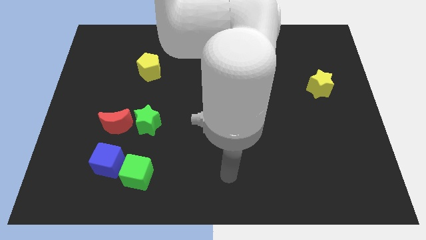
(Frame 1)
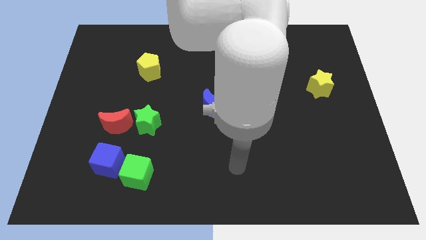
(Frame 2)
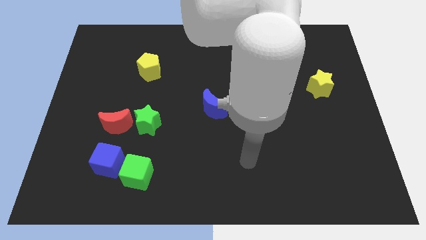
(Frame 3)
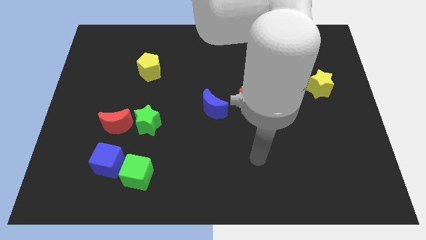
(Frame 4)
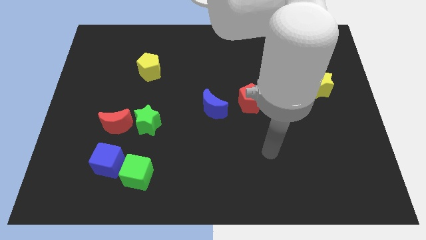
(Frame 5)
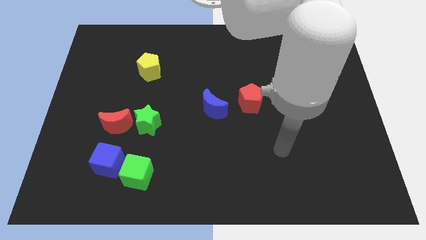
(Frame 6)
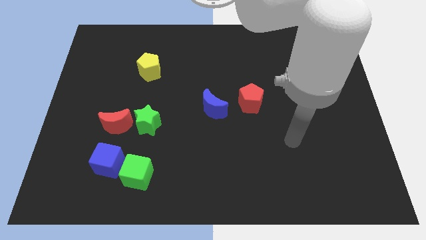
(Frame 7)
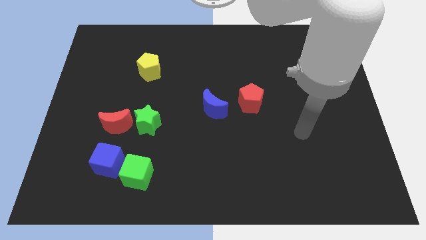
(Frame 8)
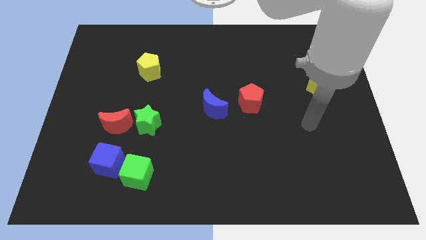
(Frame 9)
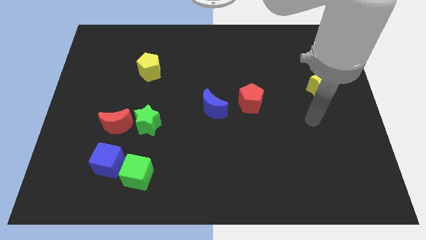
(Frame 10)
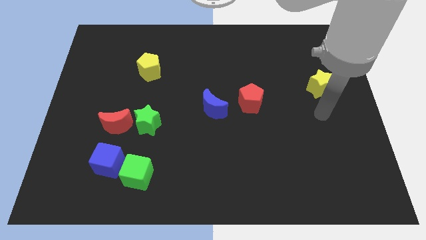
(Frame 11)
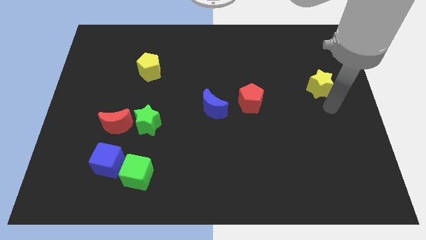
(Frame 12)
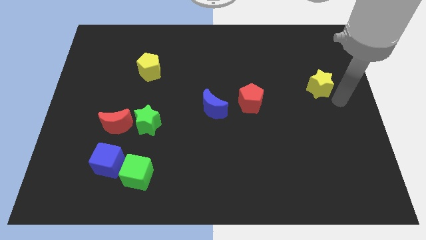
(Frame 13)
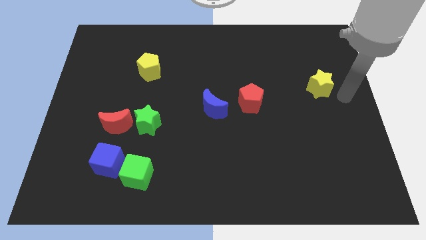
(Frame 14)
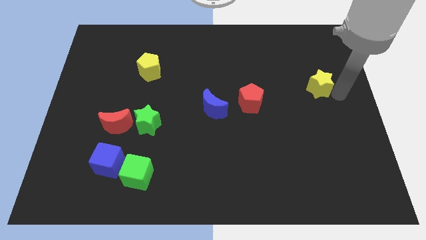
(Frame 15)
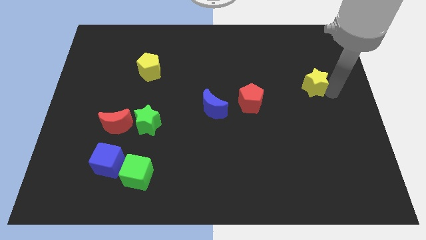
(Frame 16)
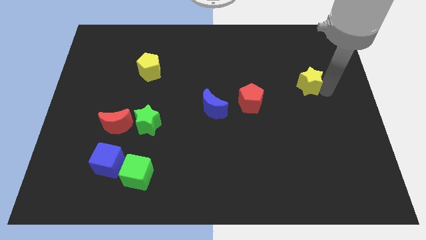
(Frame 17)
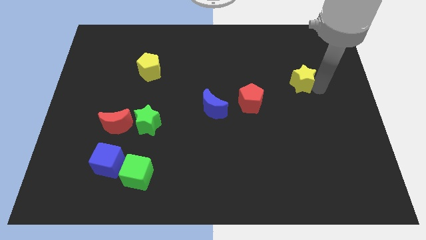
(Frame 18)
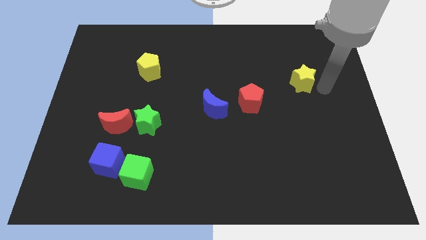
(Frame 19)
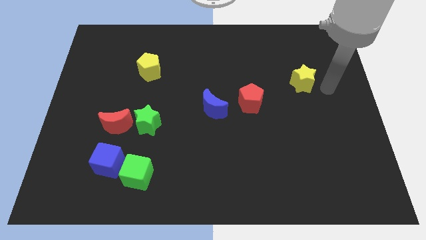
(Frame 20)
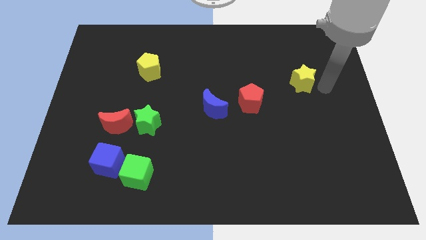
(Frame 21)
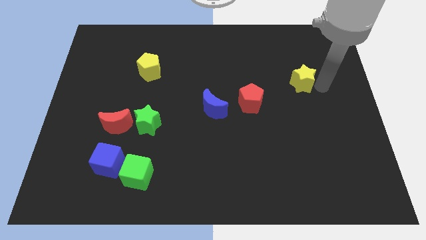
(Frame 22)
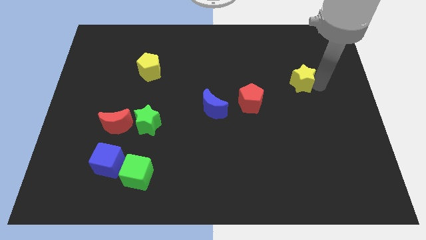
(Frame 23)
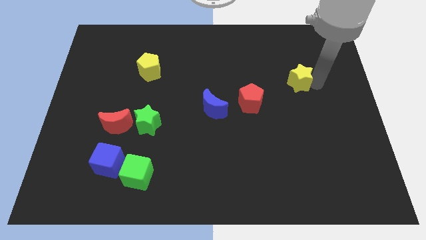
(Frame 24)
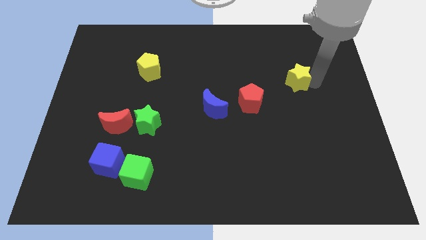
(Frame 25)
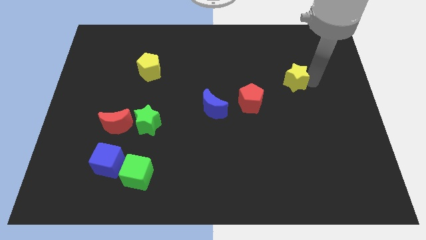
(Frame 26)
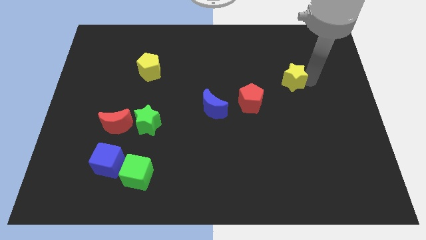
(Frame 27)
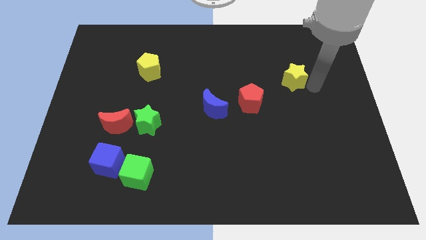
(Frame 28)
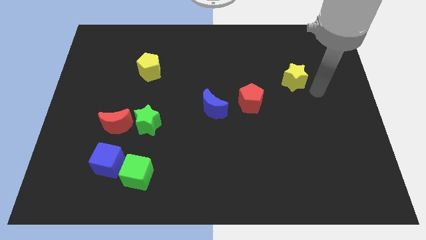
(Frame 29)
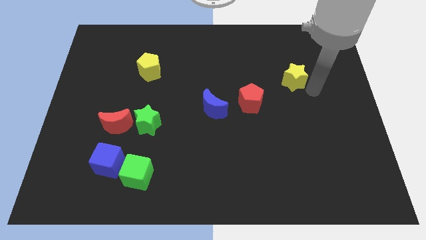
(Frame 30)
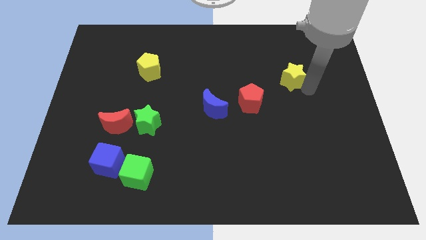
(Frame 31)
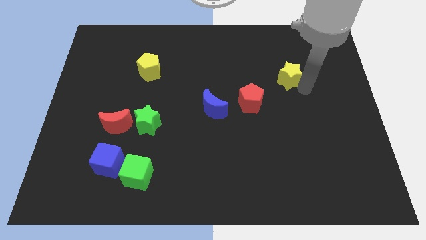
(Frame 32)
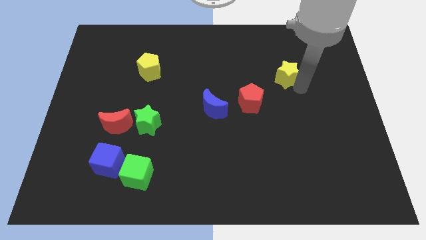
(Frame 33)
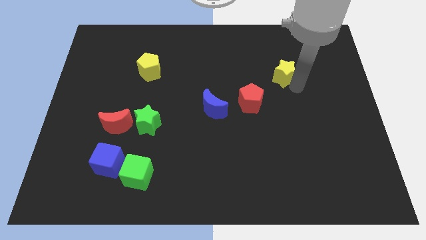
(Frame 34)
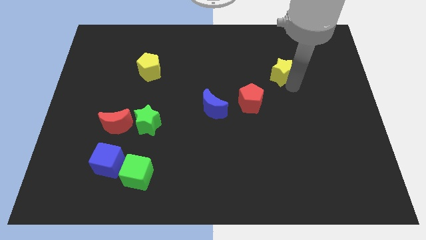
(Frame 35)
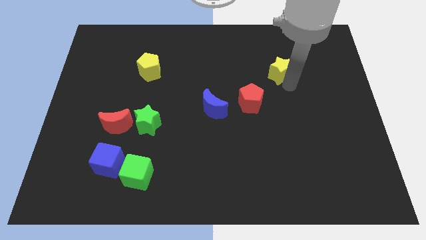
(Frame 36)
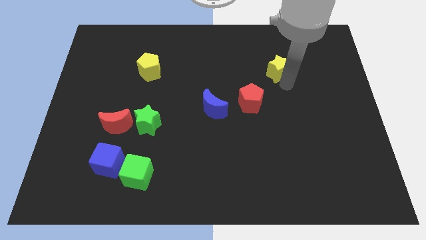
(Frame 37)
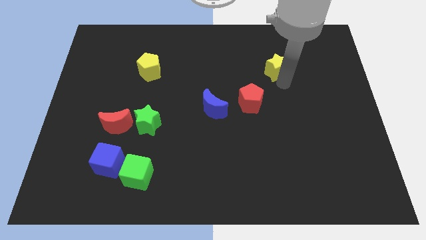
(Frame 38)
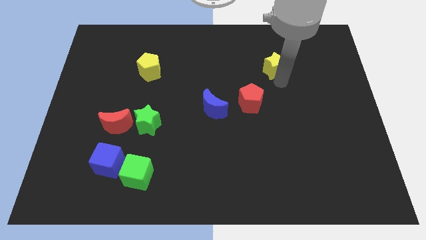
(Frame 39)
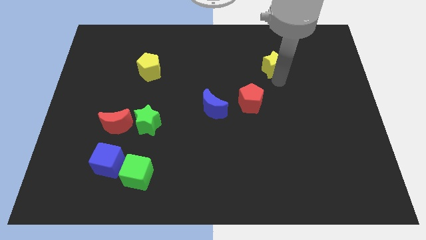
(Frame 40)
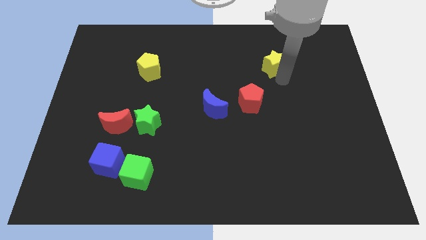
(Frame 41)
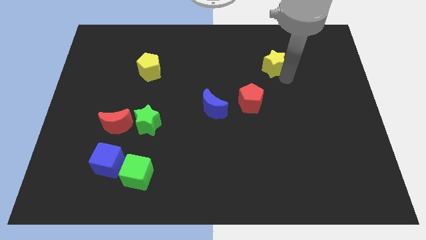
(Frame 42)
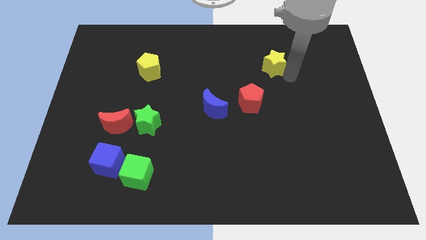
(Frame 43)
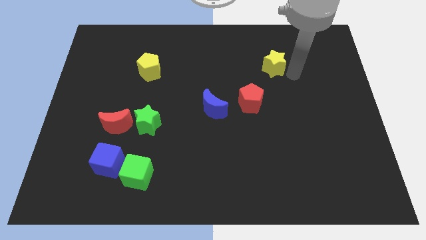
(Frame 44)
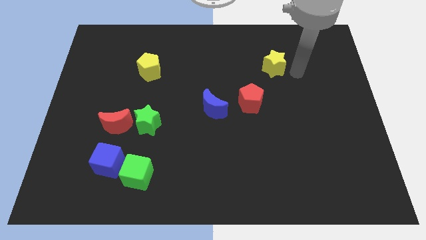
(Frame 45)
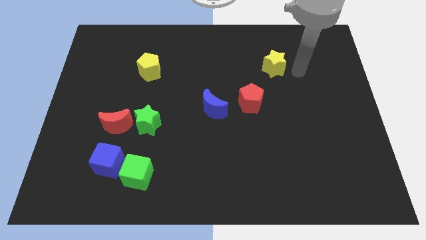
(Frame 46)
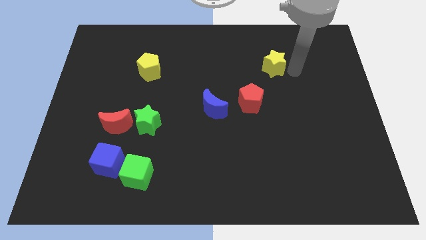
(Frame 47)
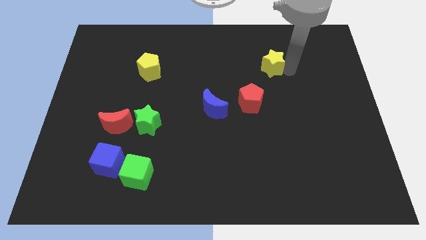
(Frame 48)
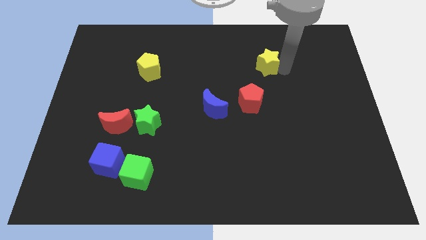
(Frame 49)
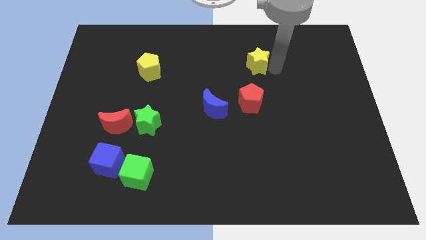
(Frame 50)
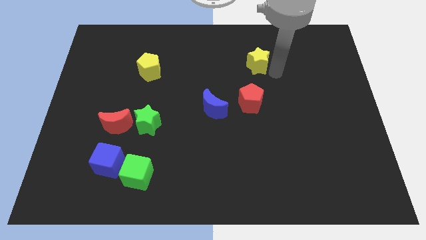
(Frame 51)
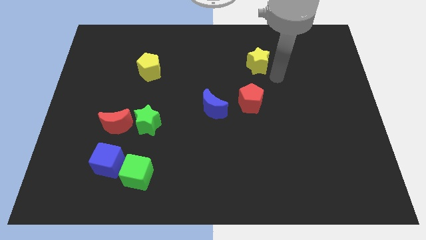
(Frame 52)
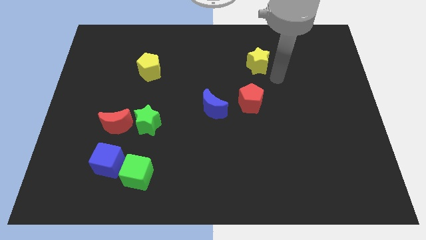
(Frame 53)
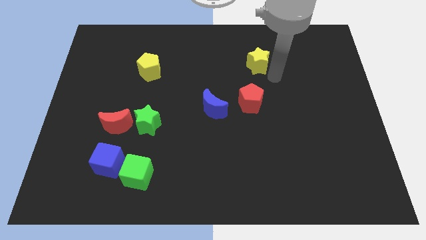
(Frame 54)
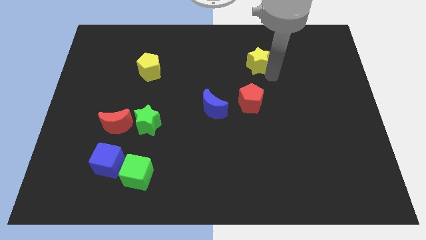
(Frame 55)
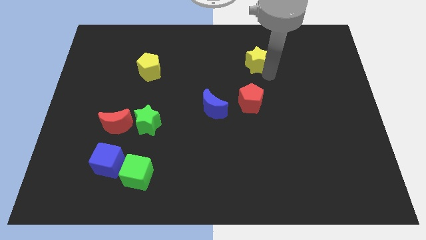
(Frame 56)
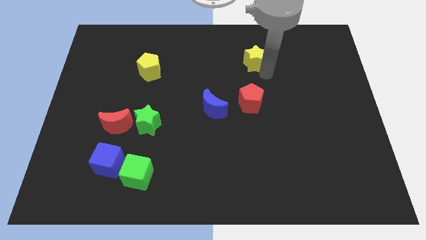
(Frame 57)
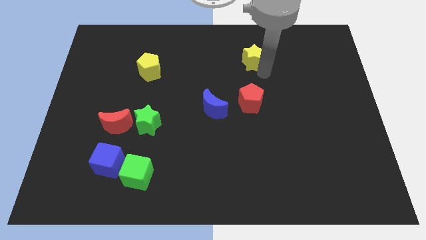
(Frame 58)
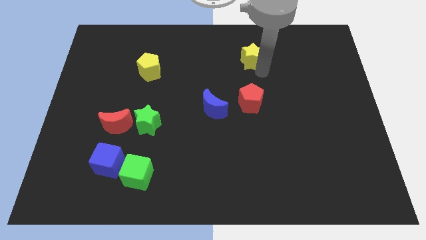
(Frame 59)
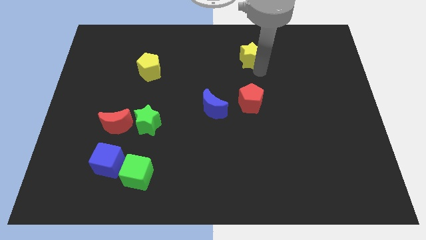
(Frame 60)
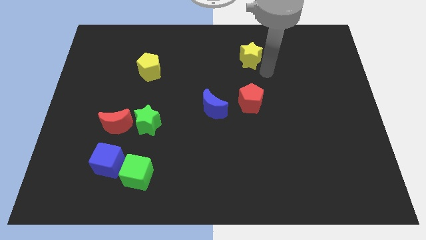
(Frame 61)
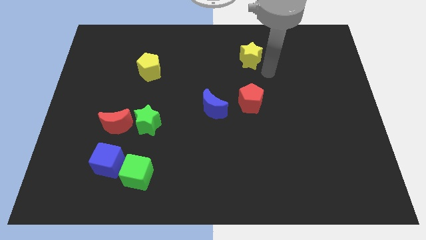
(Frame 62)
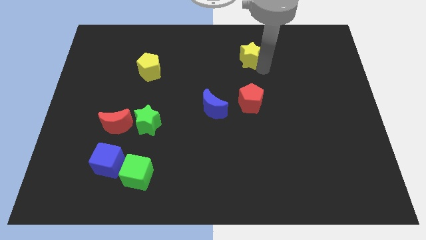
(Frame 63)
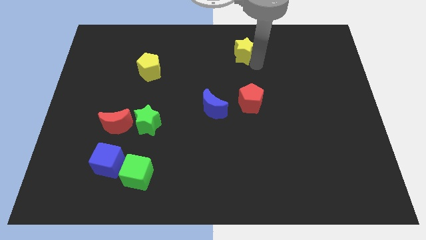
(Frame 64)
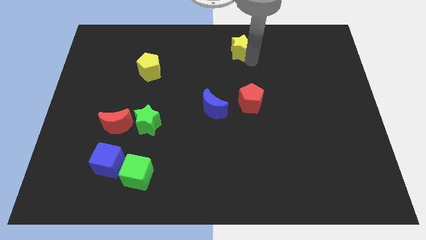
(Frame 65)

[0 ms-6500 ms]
put the yellow star to the top side

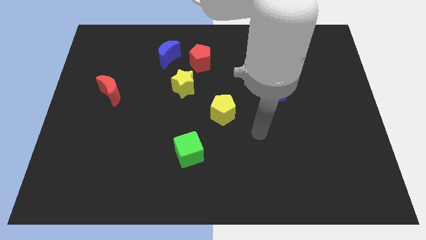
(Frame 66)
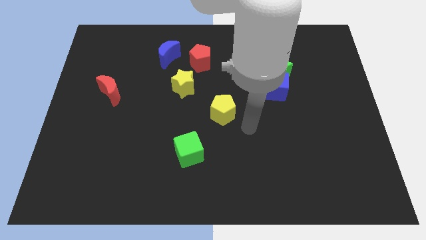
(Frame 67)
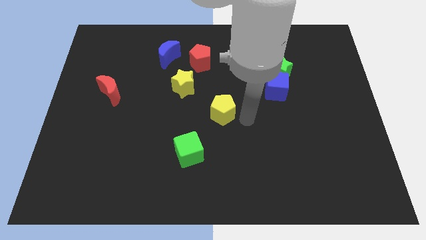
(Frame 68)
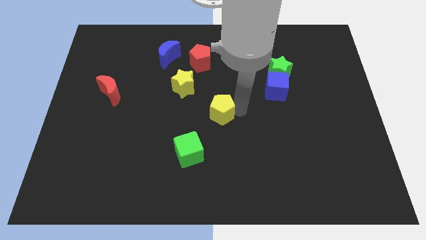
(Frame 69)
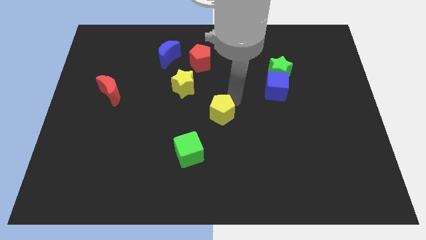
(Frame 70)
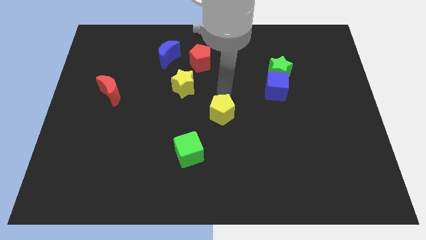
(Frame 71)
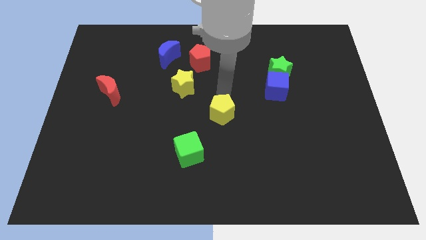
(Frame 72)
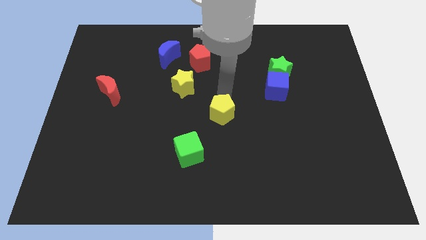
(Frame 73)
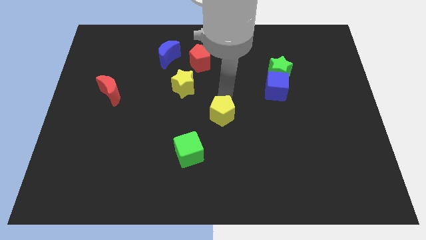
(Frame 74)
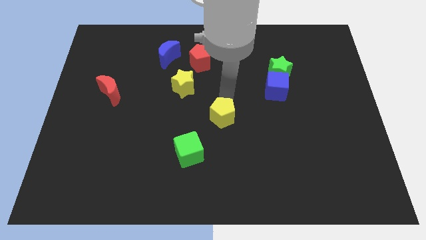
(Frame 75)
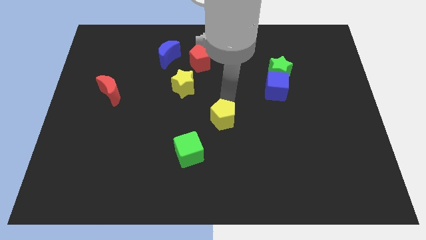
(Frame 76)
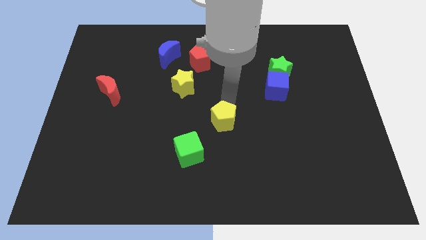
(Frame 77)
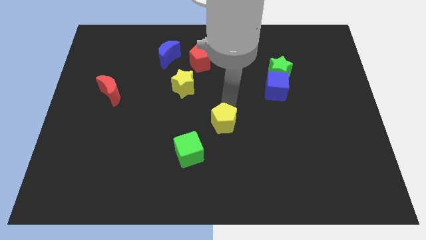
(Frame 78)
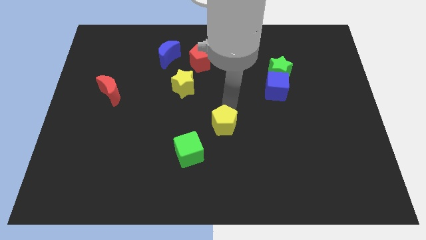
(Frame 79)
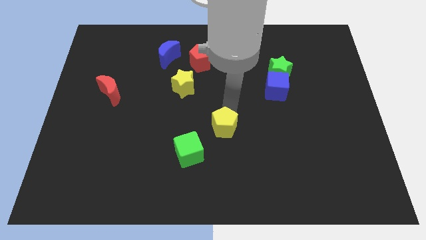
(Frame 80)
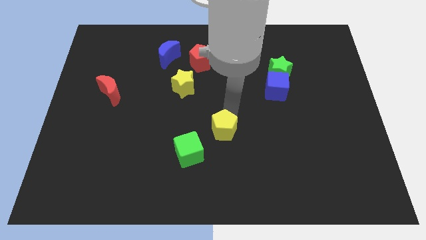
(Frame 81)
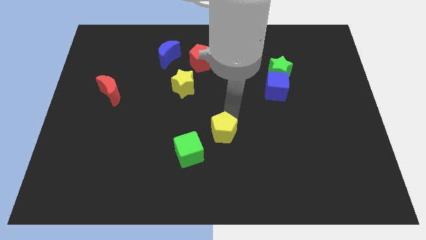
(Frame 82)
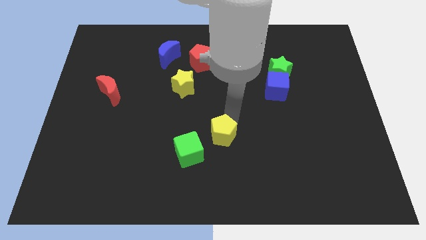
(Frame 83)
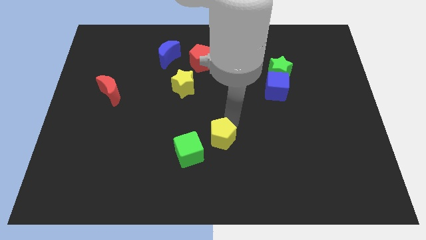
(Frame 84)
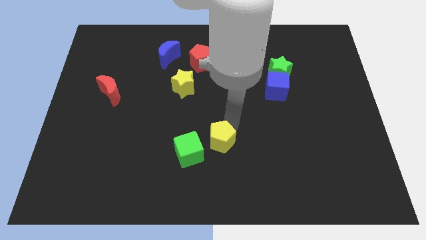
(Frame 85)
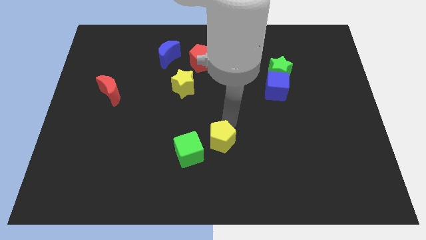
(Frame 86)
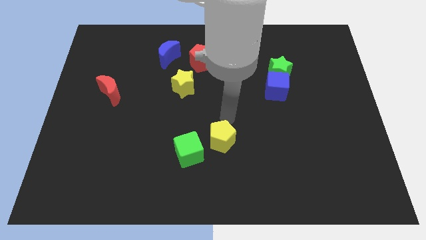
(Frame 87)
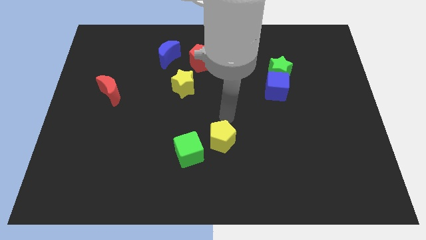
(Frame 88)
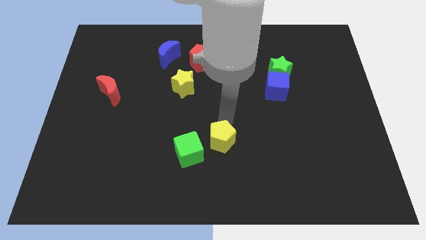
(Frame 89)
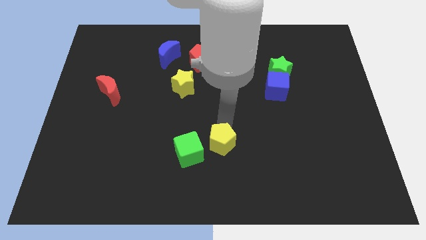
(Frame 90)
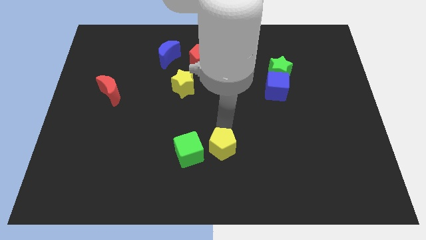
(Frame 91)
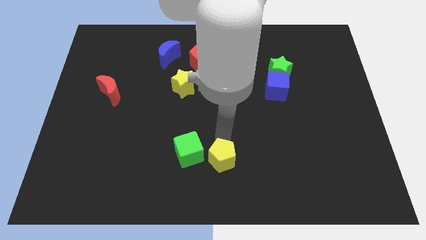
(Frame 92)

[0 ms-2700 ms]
push the yellow pentagon to the bottom
